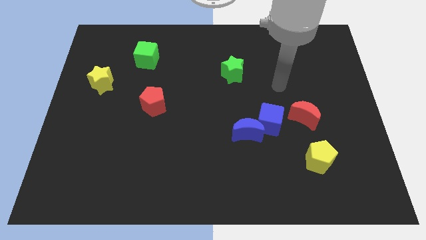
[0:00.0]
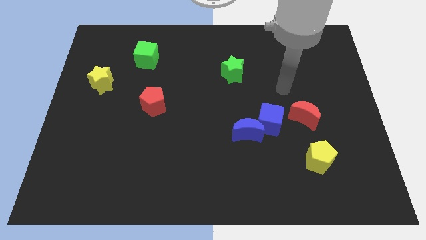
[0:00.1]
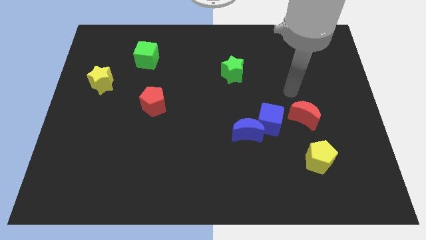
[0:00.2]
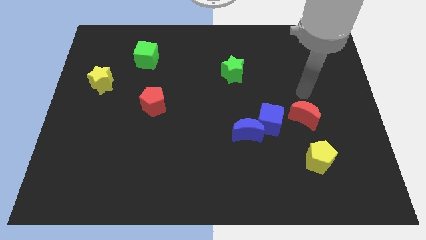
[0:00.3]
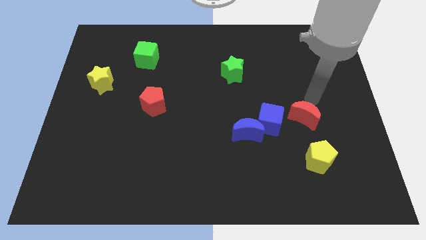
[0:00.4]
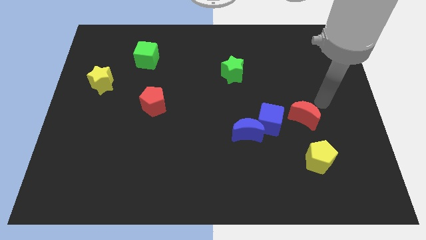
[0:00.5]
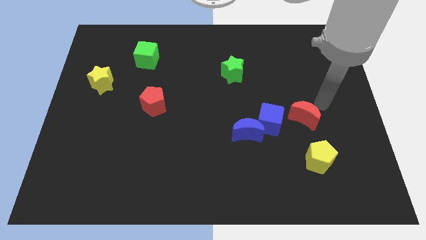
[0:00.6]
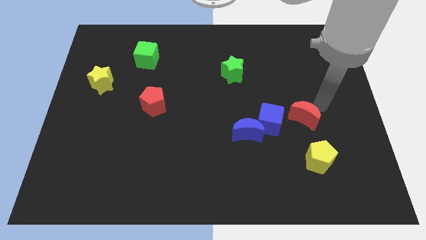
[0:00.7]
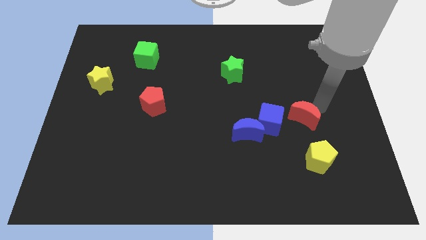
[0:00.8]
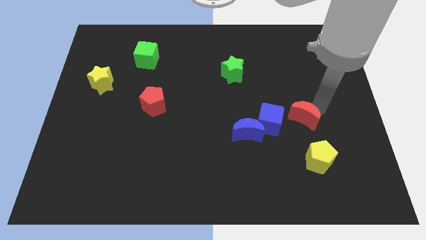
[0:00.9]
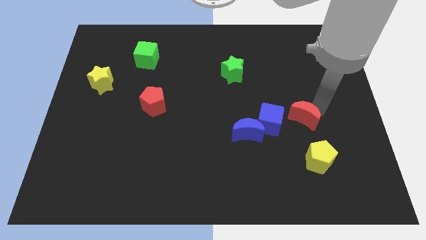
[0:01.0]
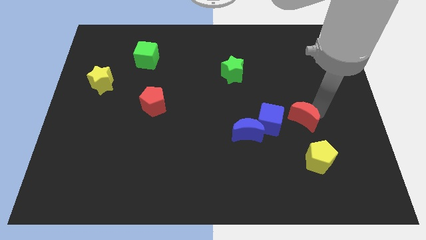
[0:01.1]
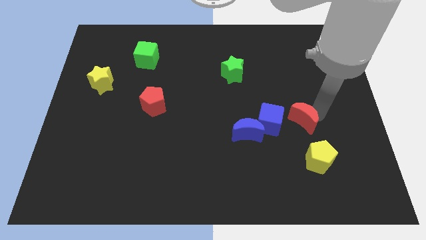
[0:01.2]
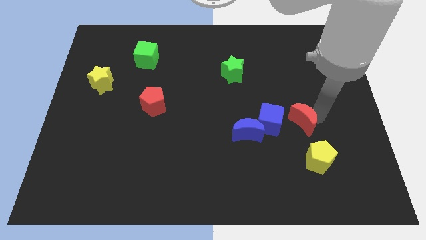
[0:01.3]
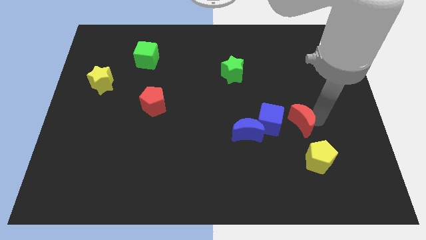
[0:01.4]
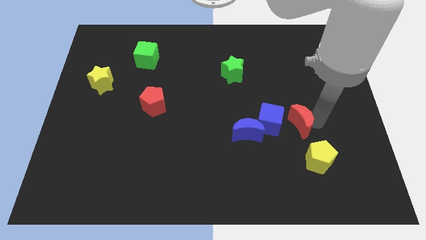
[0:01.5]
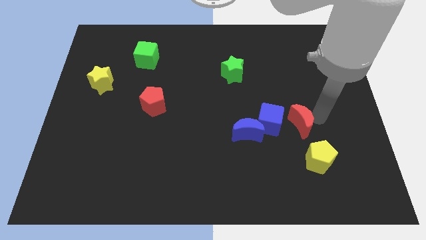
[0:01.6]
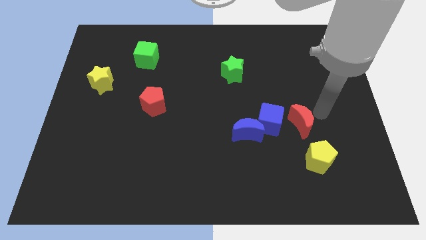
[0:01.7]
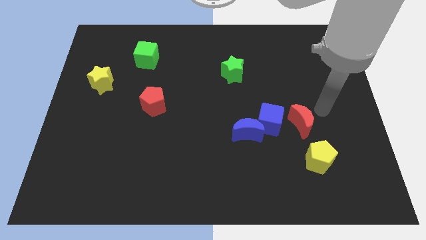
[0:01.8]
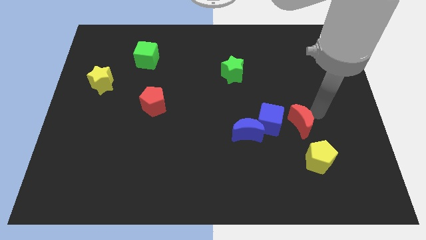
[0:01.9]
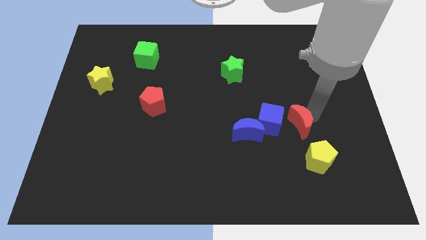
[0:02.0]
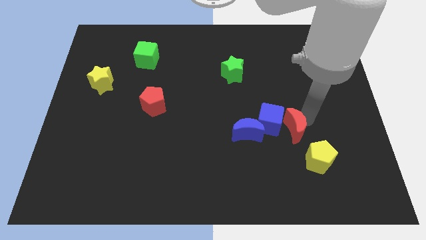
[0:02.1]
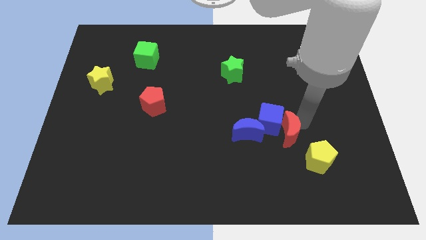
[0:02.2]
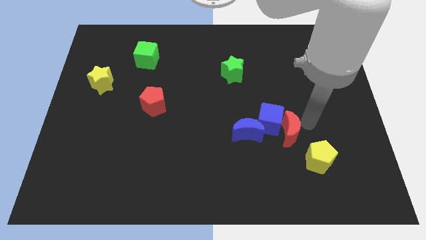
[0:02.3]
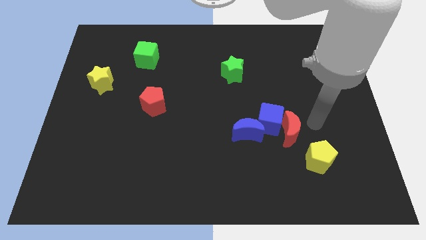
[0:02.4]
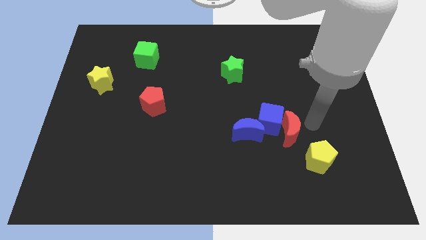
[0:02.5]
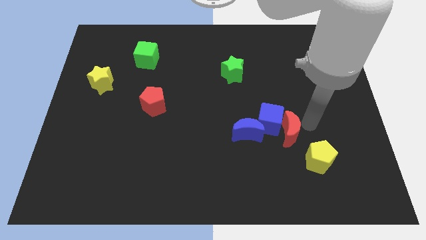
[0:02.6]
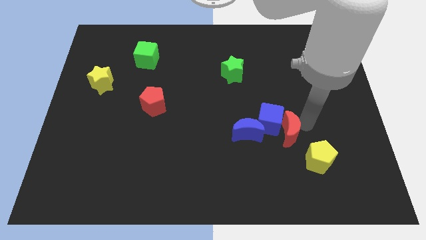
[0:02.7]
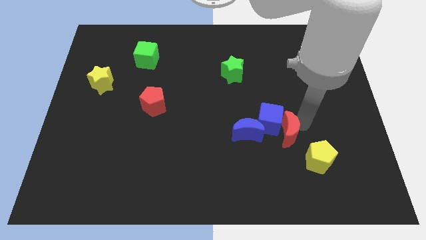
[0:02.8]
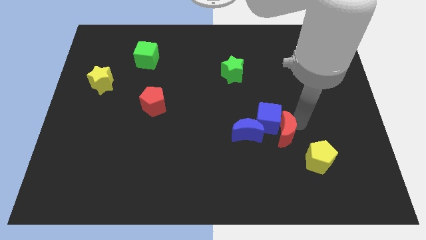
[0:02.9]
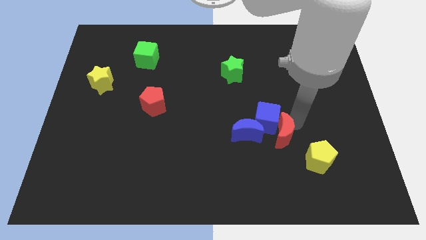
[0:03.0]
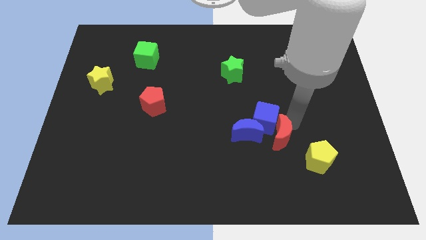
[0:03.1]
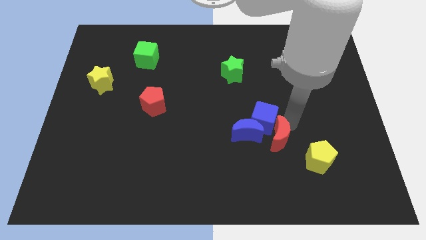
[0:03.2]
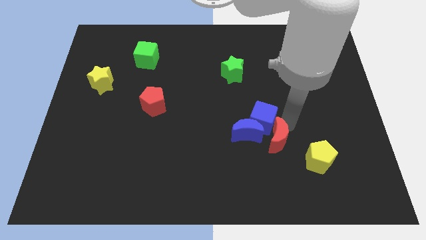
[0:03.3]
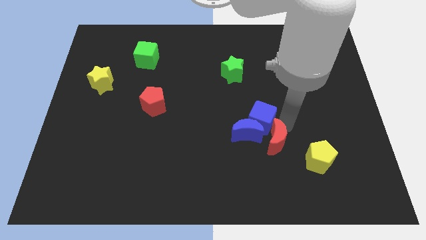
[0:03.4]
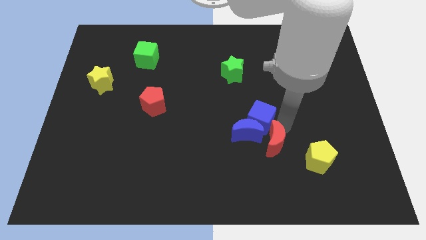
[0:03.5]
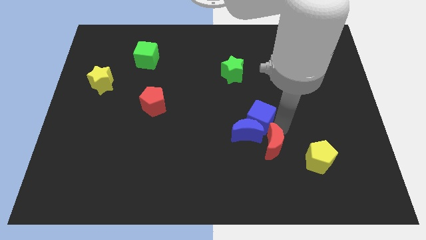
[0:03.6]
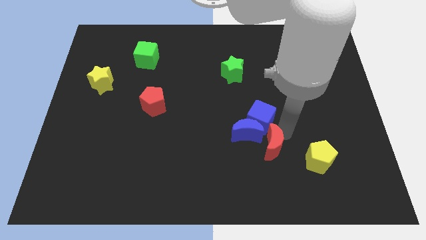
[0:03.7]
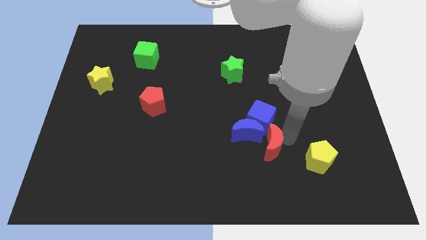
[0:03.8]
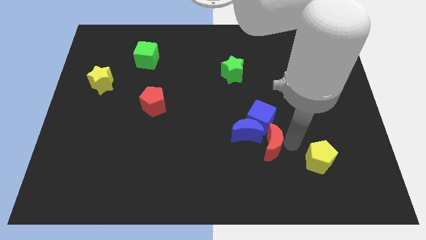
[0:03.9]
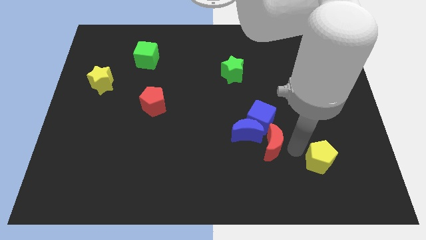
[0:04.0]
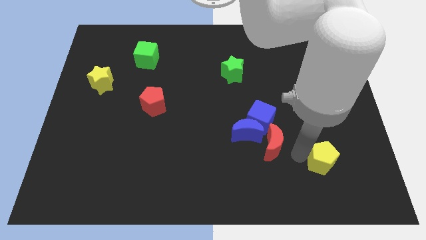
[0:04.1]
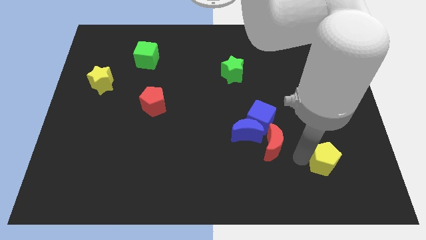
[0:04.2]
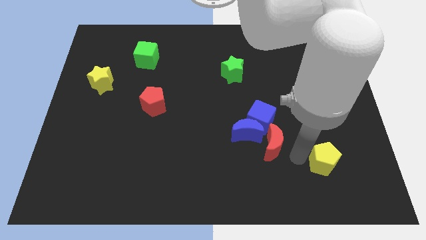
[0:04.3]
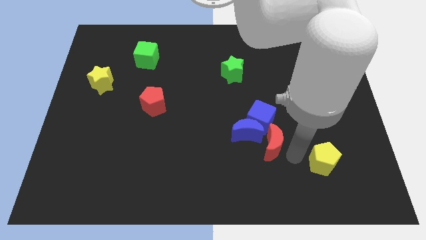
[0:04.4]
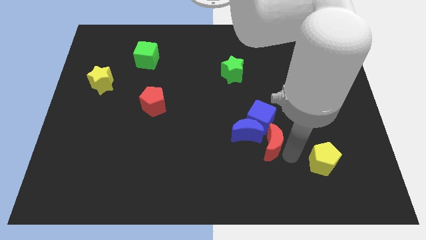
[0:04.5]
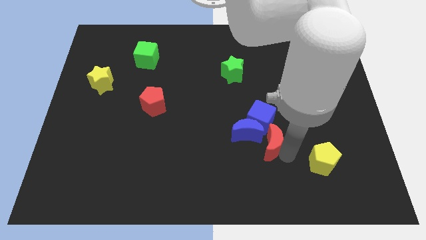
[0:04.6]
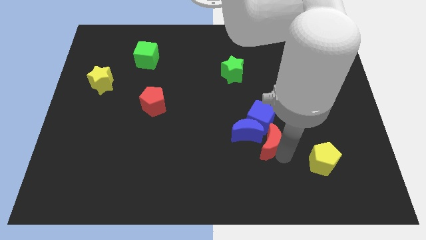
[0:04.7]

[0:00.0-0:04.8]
put the red moon towards the blue moon

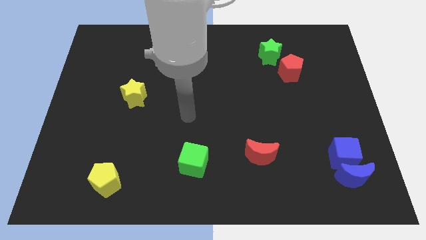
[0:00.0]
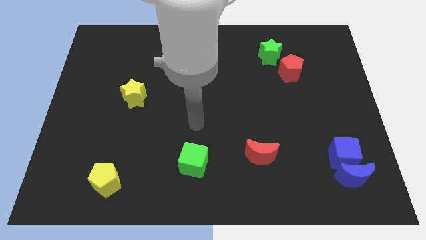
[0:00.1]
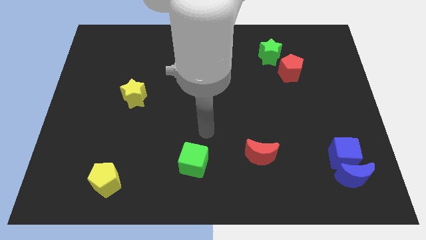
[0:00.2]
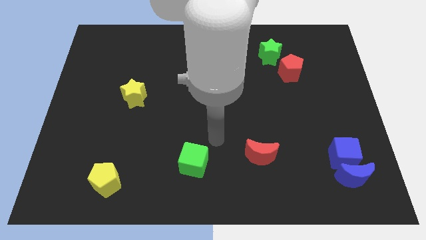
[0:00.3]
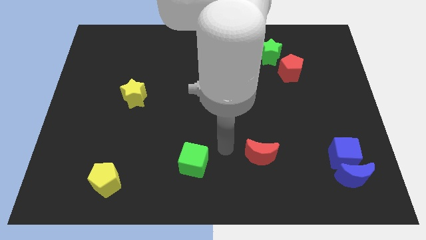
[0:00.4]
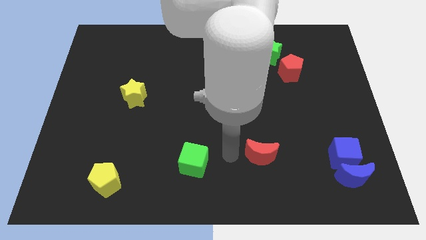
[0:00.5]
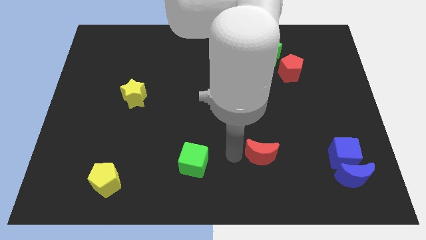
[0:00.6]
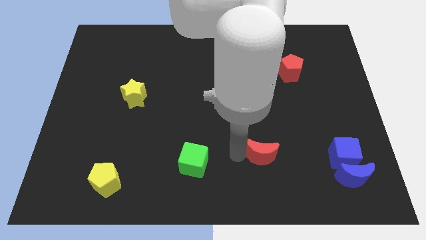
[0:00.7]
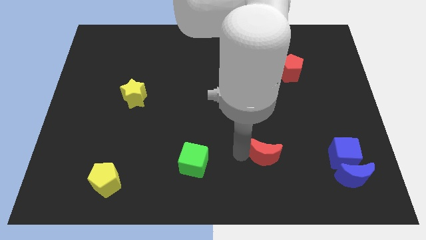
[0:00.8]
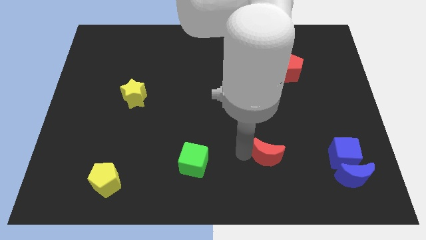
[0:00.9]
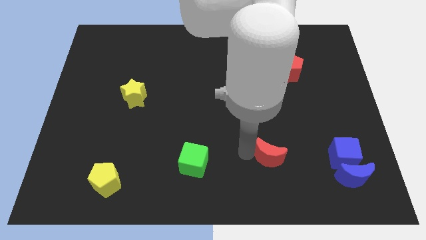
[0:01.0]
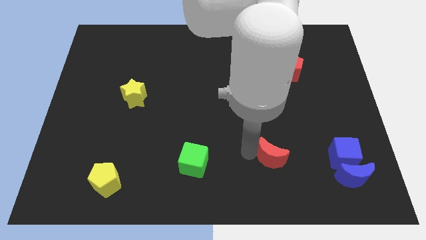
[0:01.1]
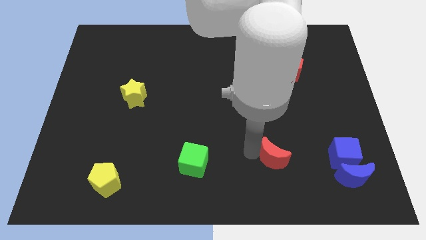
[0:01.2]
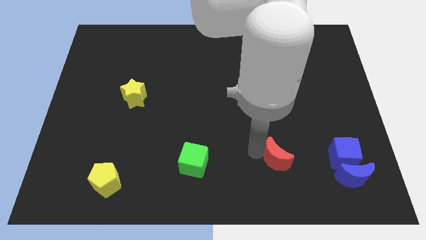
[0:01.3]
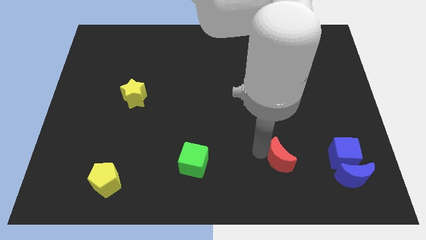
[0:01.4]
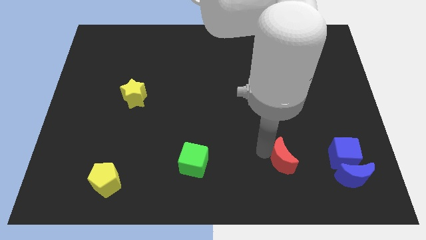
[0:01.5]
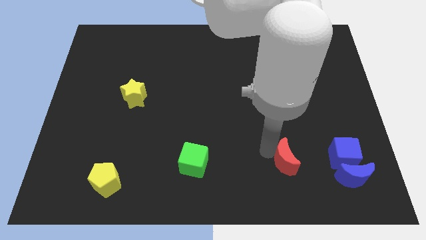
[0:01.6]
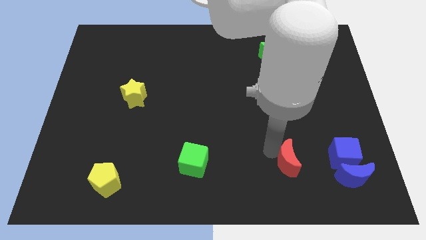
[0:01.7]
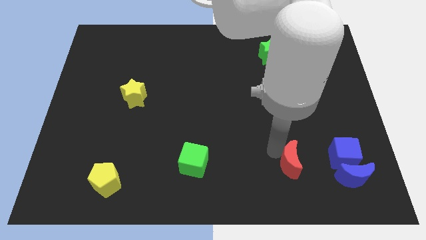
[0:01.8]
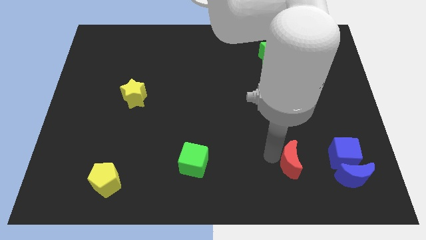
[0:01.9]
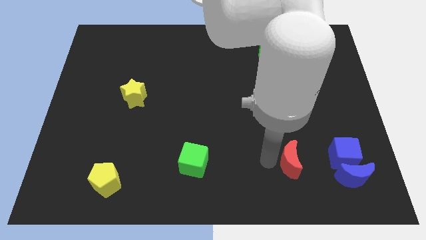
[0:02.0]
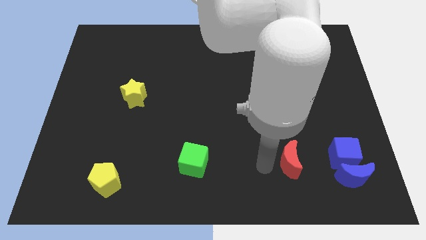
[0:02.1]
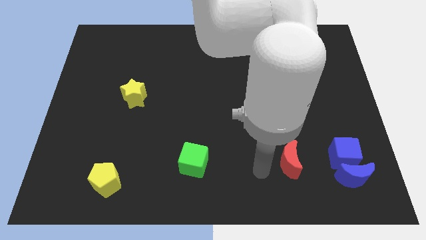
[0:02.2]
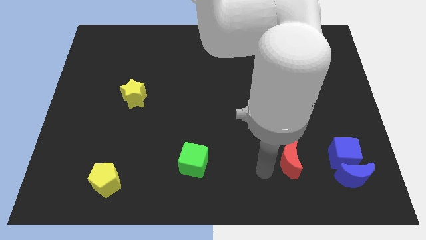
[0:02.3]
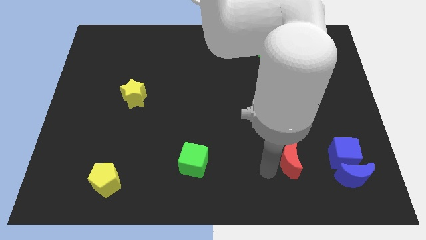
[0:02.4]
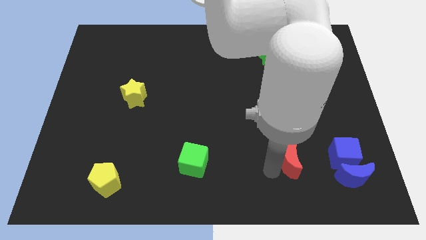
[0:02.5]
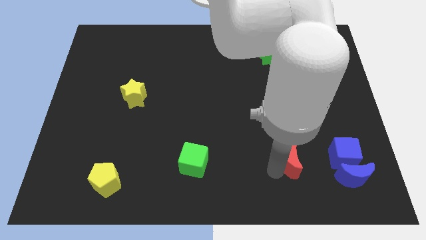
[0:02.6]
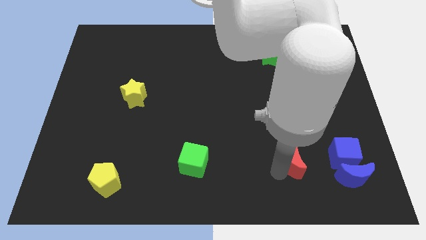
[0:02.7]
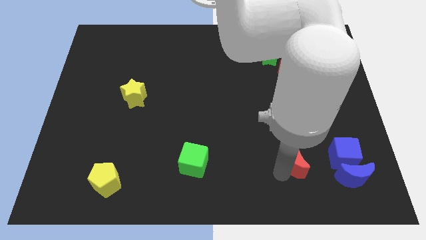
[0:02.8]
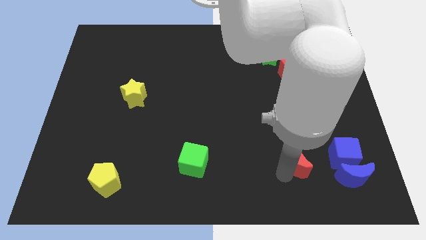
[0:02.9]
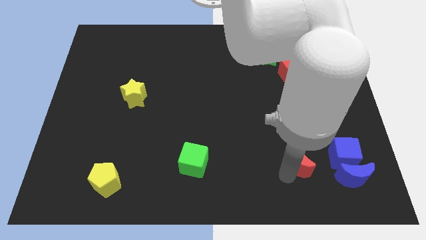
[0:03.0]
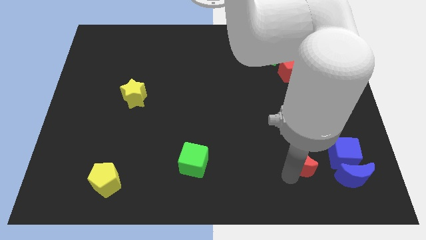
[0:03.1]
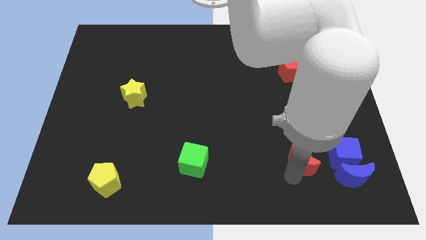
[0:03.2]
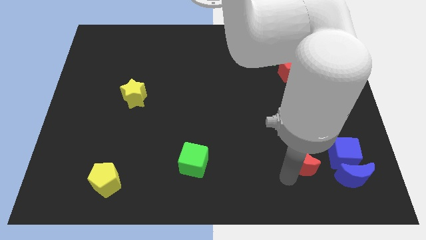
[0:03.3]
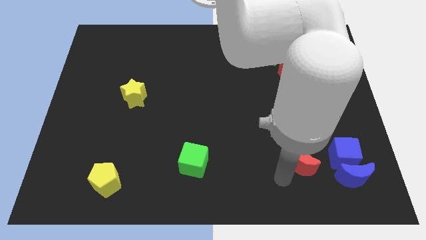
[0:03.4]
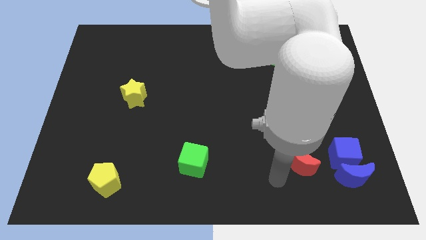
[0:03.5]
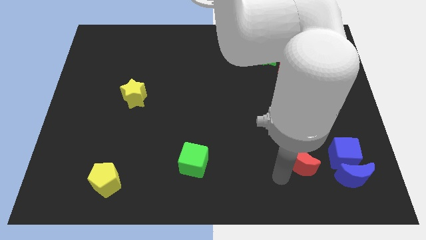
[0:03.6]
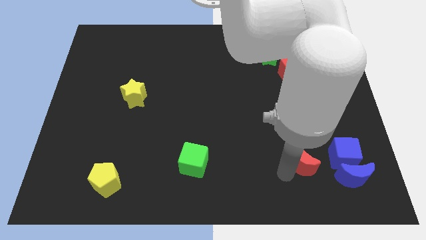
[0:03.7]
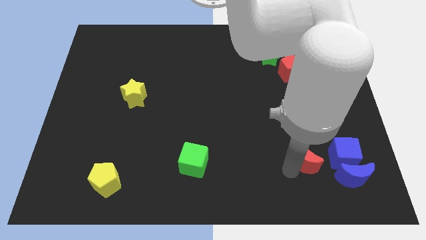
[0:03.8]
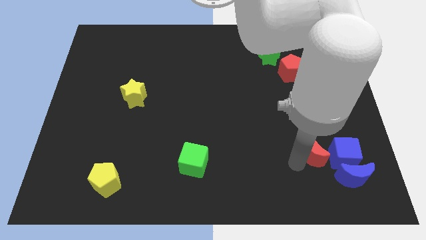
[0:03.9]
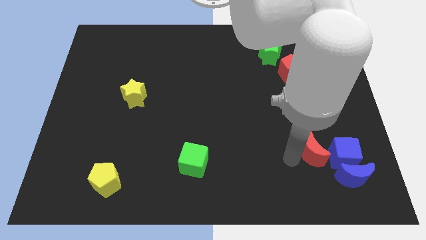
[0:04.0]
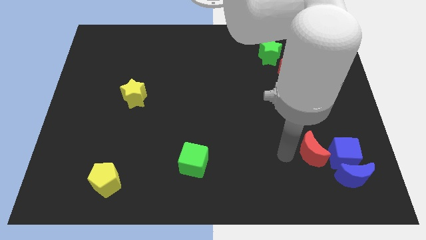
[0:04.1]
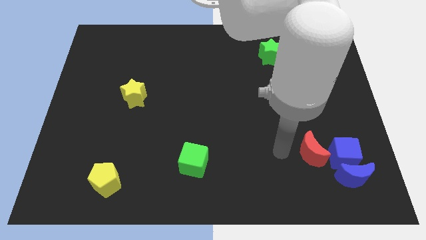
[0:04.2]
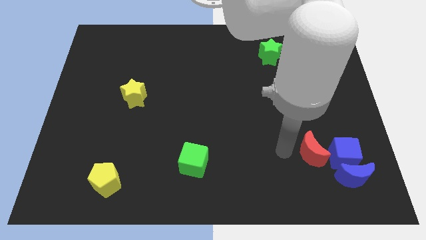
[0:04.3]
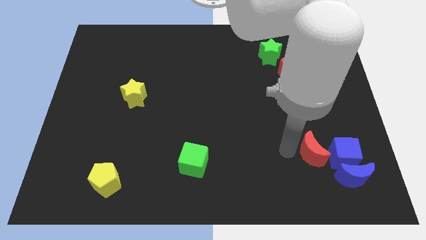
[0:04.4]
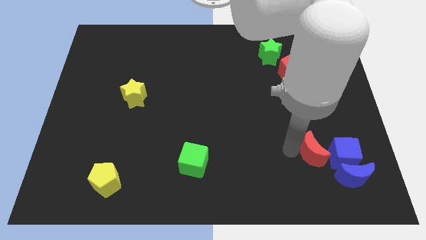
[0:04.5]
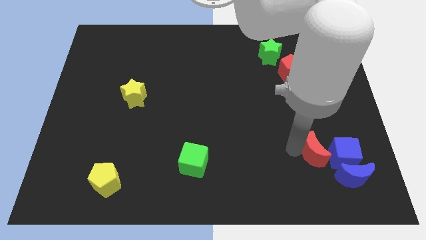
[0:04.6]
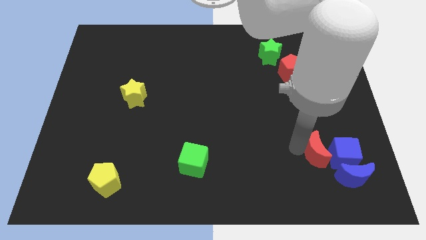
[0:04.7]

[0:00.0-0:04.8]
move the red moon close to the blue cube
